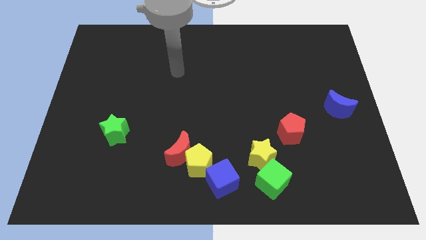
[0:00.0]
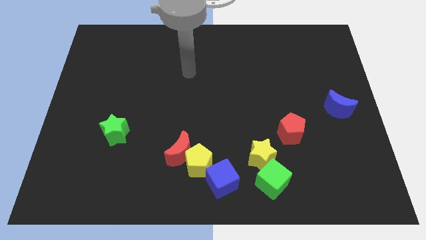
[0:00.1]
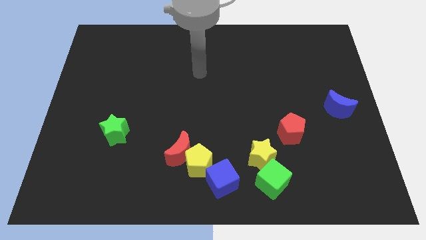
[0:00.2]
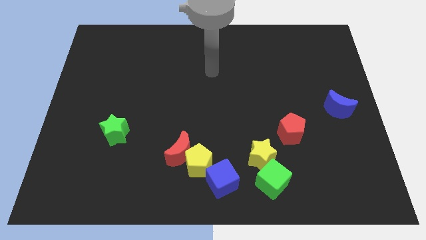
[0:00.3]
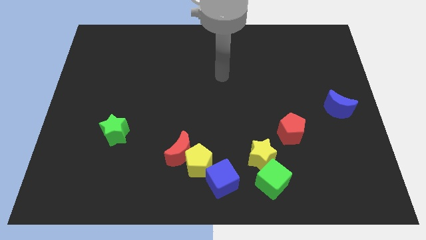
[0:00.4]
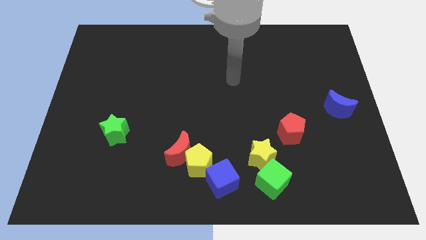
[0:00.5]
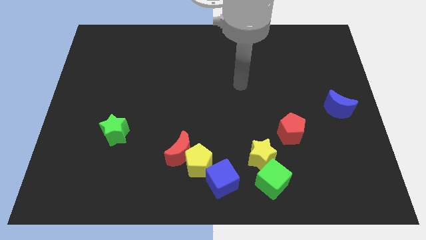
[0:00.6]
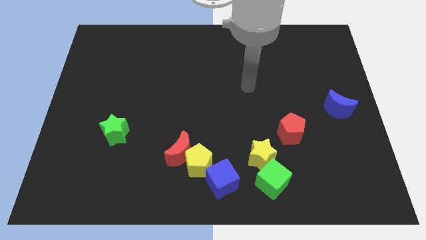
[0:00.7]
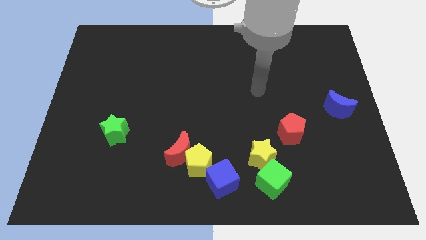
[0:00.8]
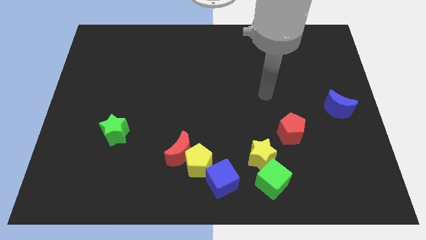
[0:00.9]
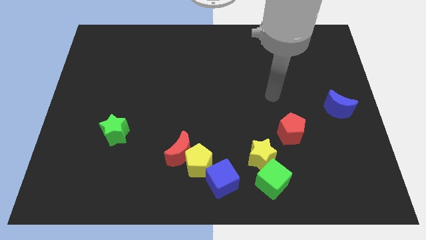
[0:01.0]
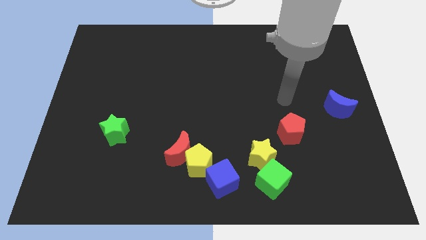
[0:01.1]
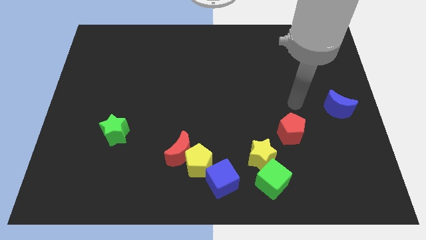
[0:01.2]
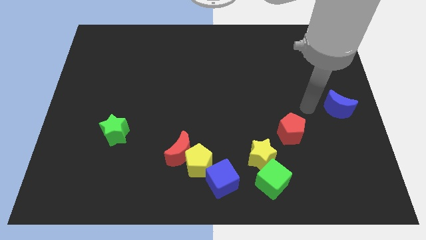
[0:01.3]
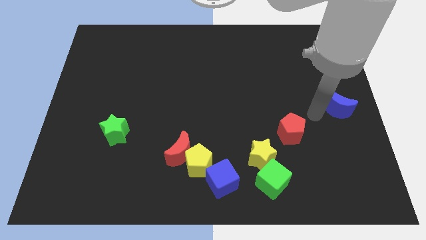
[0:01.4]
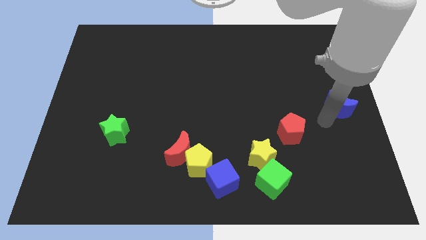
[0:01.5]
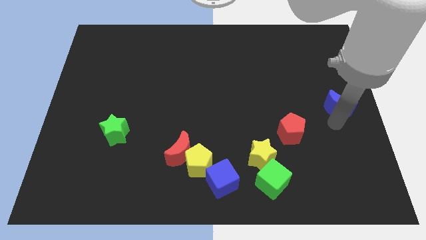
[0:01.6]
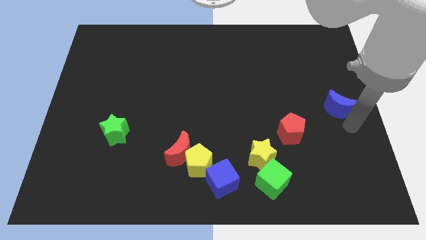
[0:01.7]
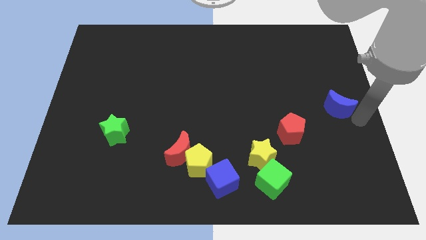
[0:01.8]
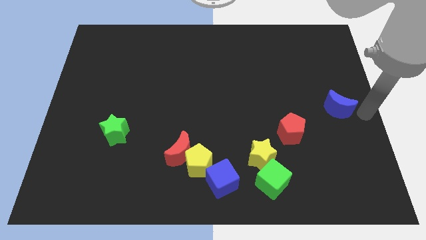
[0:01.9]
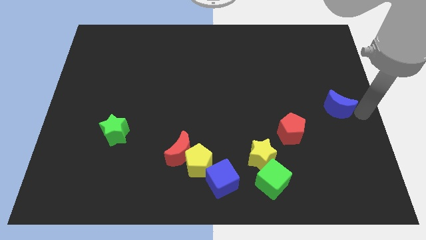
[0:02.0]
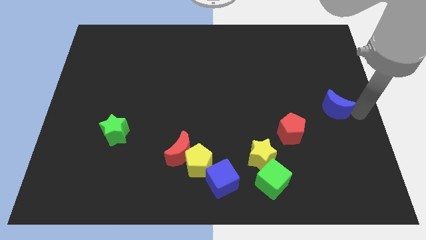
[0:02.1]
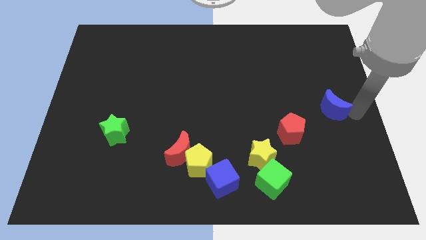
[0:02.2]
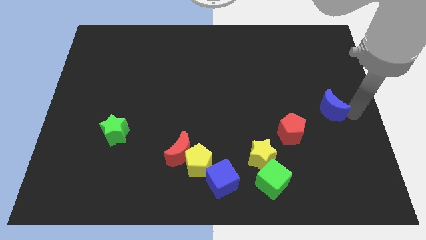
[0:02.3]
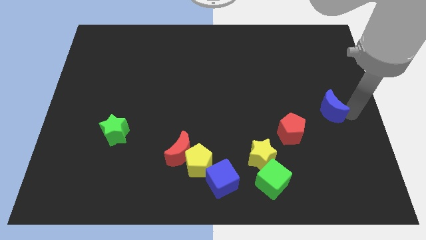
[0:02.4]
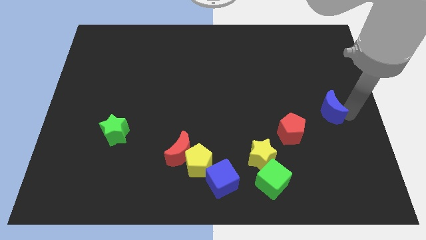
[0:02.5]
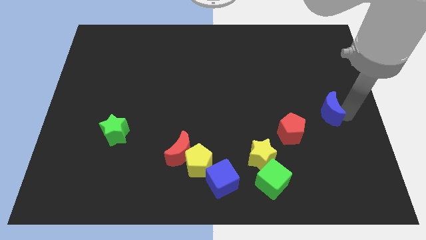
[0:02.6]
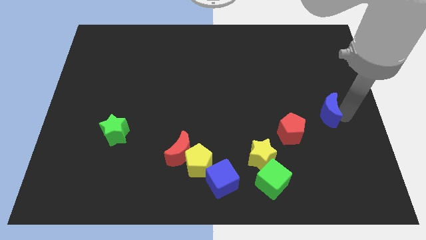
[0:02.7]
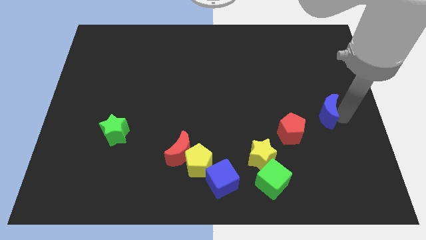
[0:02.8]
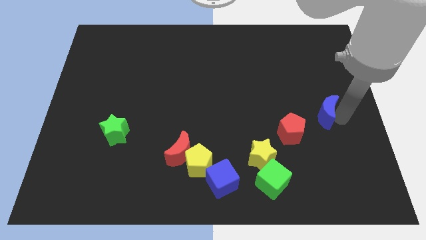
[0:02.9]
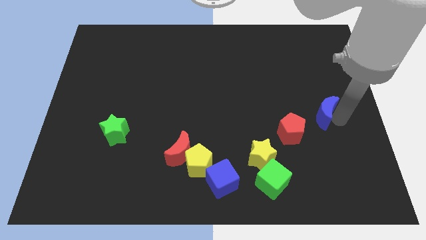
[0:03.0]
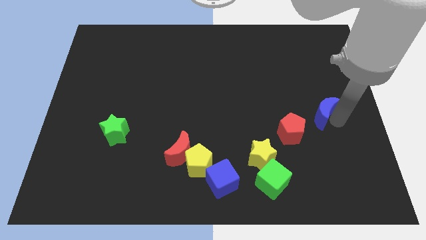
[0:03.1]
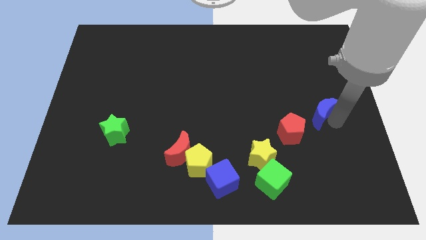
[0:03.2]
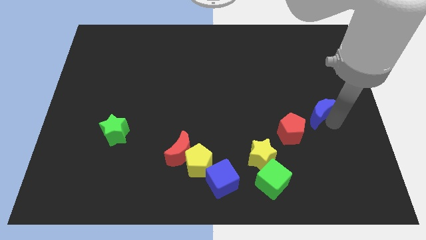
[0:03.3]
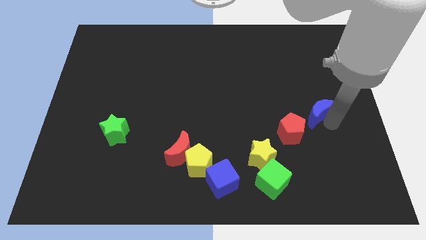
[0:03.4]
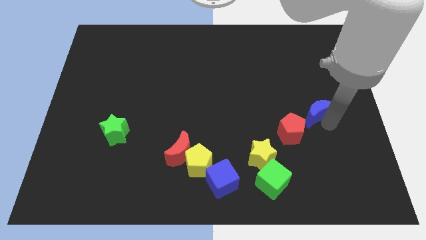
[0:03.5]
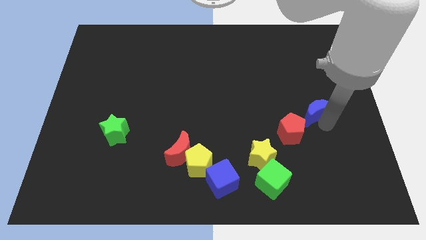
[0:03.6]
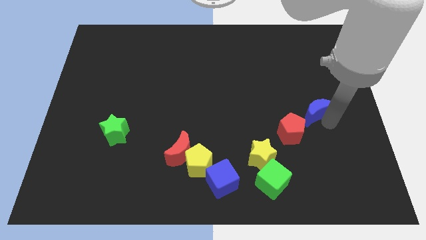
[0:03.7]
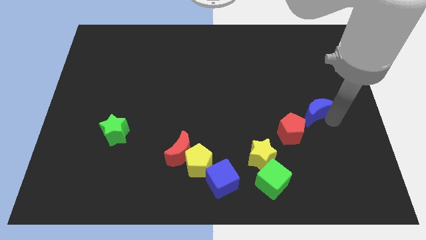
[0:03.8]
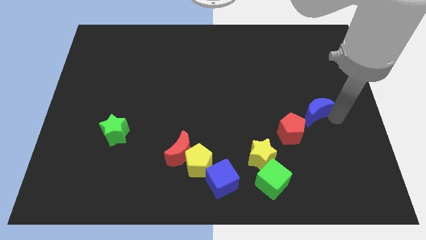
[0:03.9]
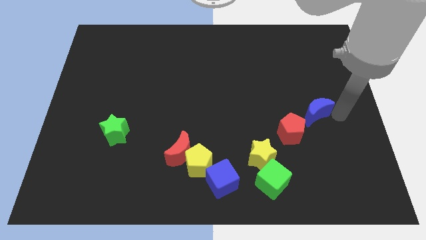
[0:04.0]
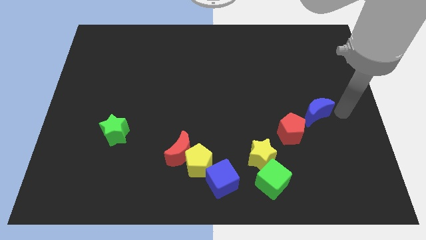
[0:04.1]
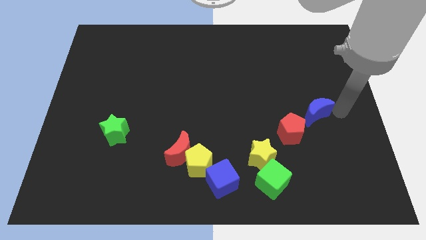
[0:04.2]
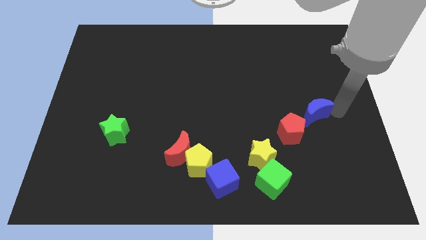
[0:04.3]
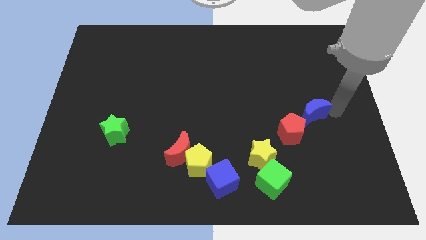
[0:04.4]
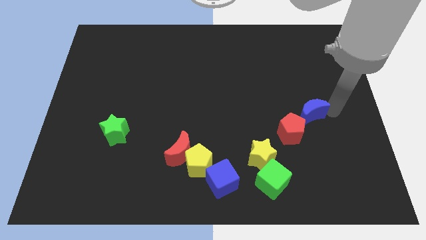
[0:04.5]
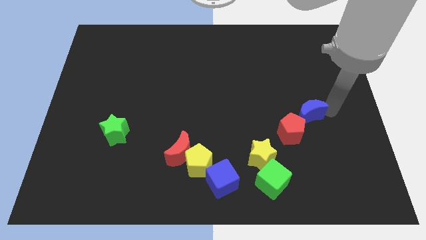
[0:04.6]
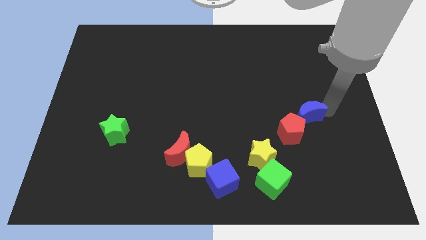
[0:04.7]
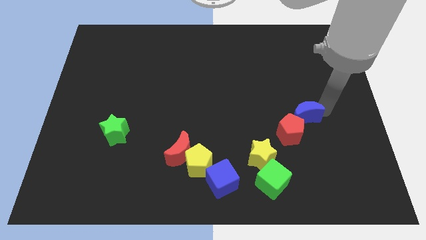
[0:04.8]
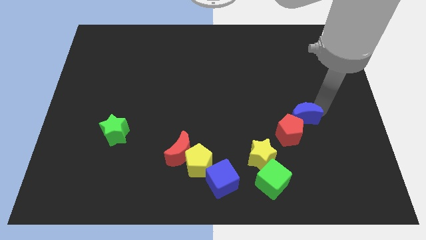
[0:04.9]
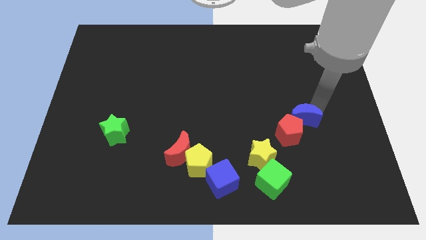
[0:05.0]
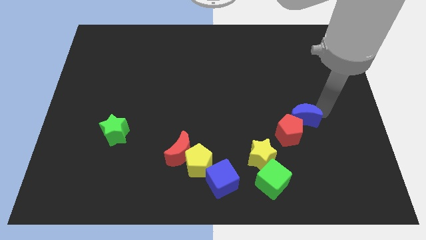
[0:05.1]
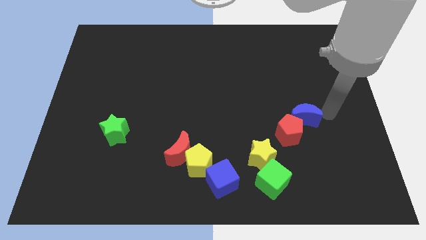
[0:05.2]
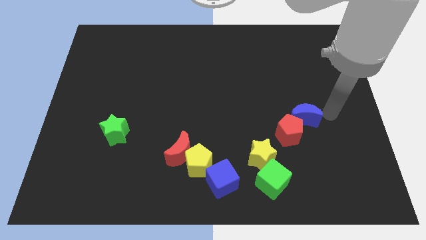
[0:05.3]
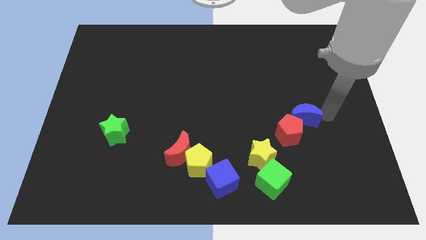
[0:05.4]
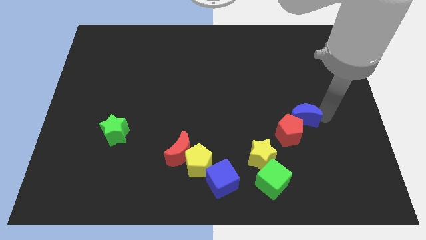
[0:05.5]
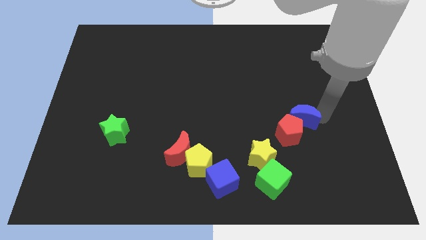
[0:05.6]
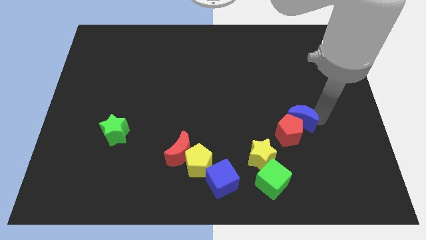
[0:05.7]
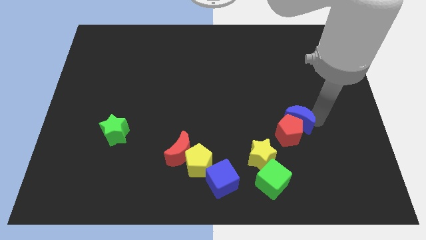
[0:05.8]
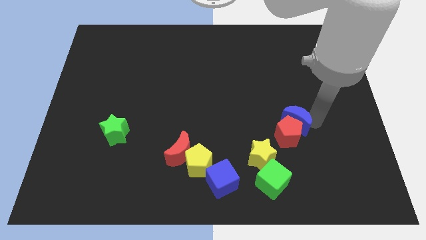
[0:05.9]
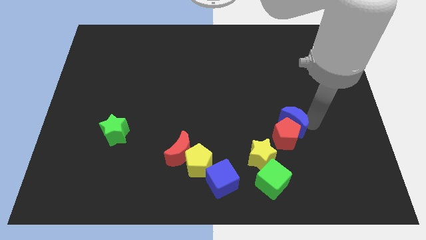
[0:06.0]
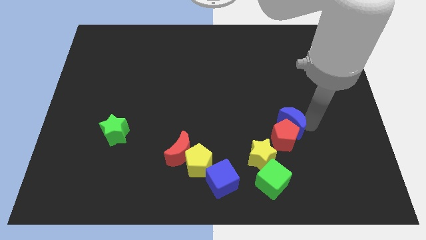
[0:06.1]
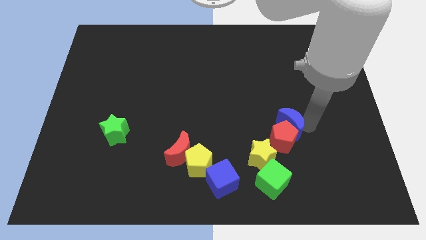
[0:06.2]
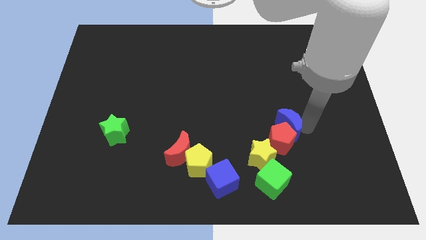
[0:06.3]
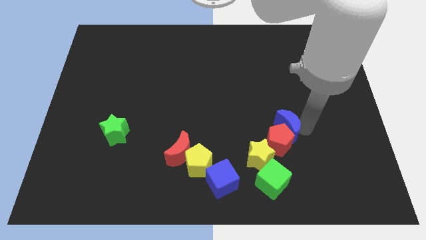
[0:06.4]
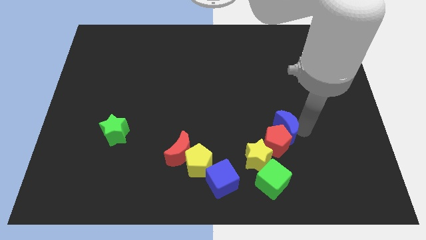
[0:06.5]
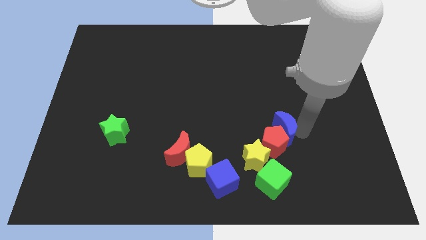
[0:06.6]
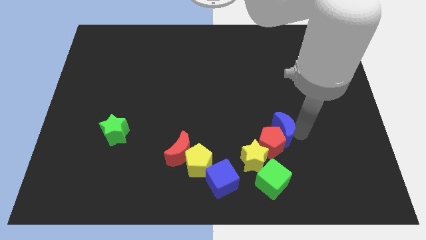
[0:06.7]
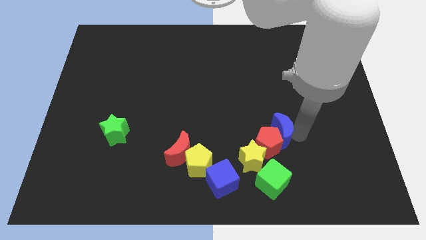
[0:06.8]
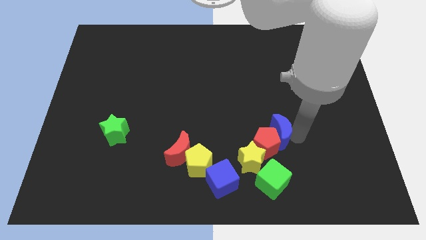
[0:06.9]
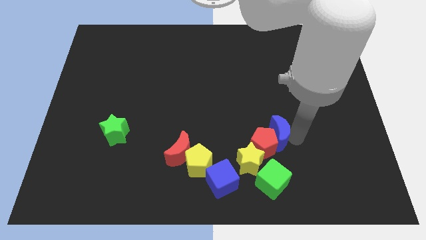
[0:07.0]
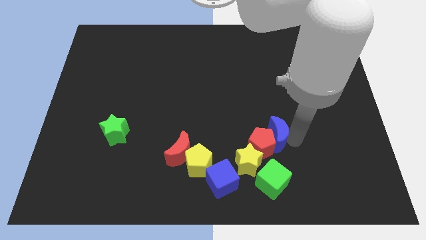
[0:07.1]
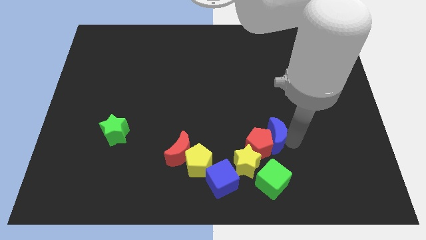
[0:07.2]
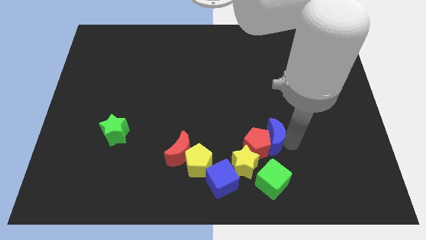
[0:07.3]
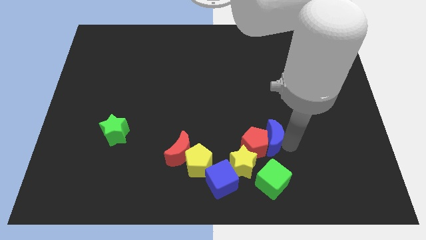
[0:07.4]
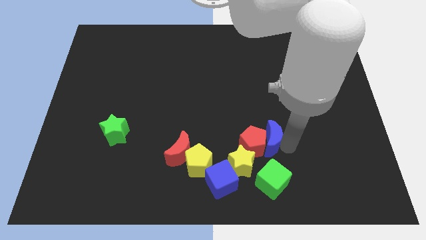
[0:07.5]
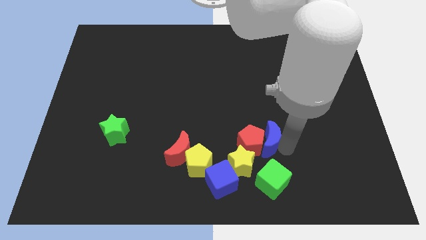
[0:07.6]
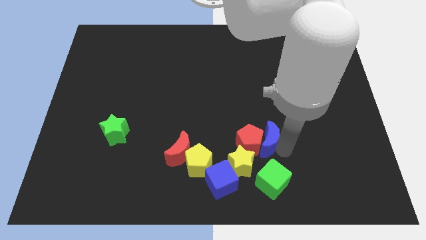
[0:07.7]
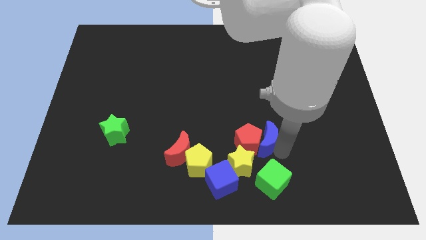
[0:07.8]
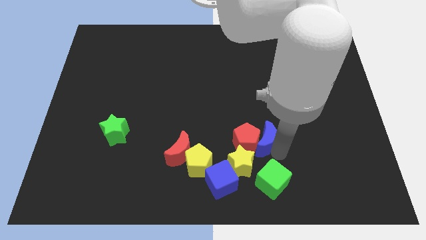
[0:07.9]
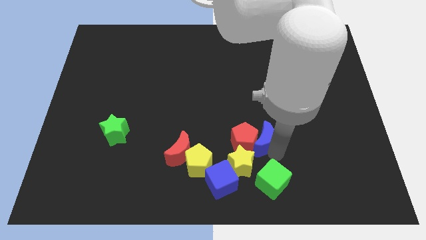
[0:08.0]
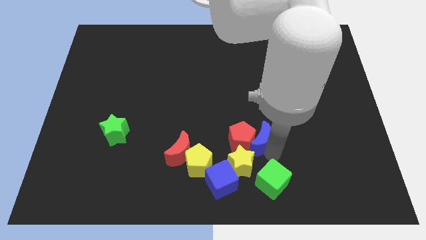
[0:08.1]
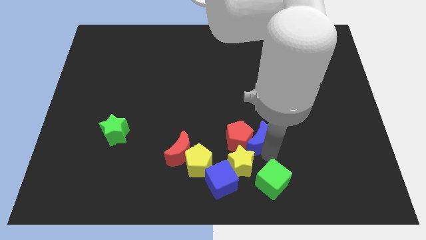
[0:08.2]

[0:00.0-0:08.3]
move the blue moon diagonally up and to the left of the green cube
